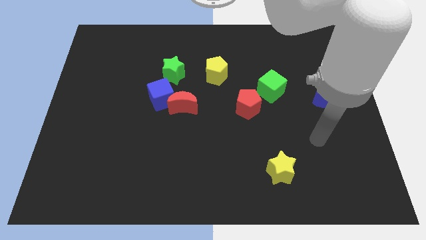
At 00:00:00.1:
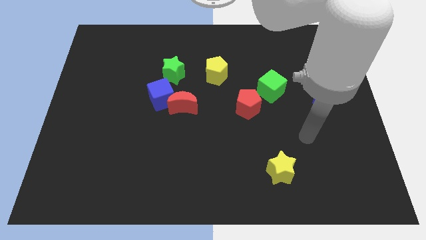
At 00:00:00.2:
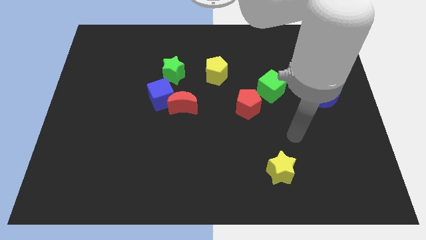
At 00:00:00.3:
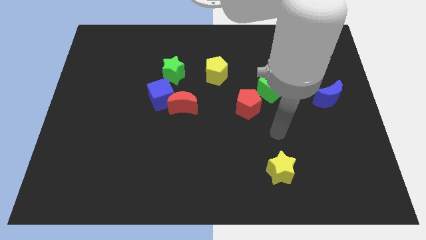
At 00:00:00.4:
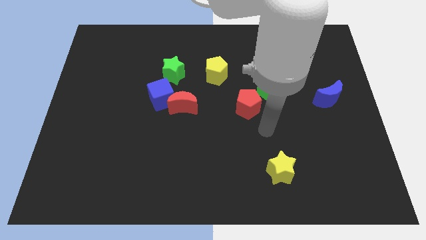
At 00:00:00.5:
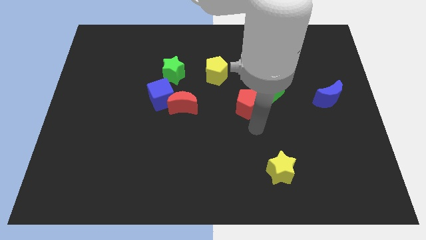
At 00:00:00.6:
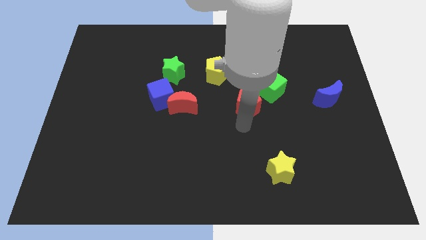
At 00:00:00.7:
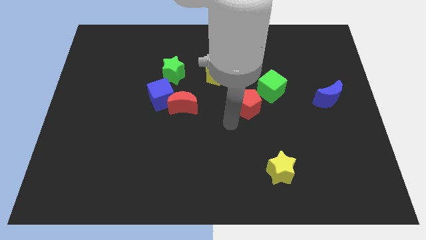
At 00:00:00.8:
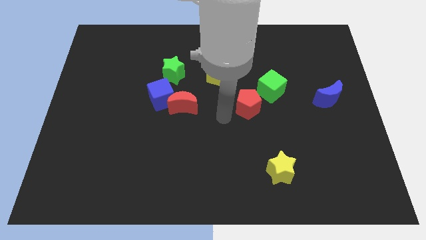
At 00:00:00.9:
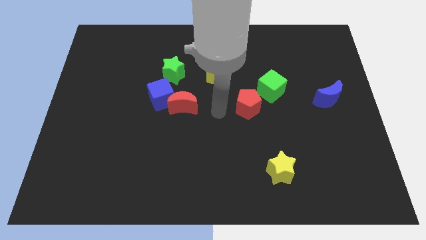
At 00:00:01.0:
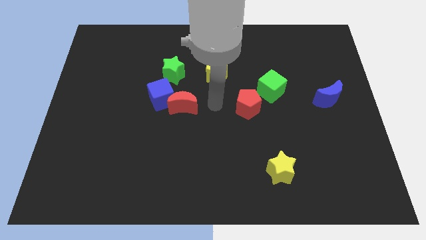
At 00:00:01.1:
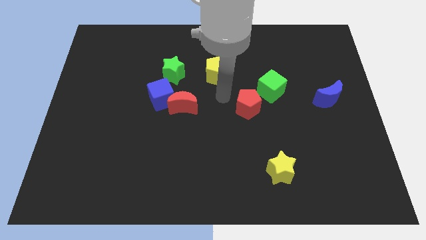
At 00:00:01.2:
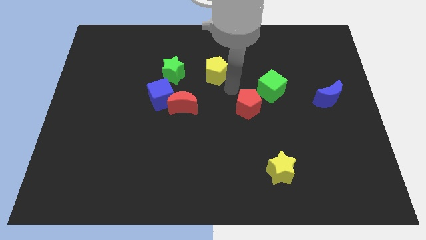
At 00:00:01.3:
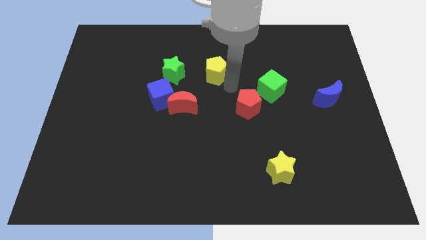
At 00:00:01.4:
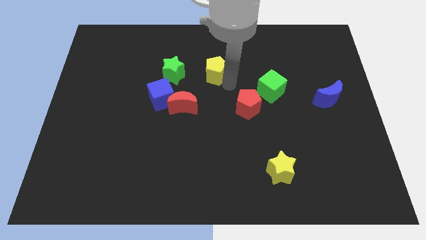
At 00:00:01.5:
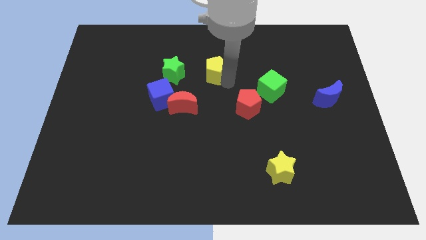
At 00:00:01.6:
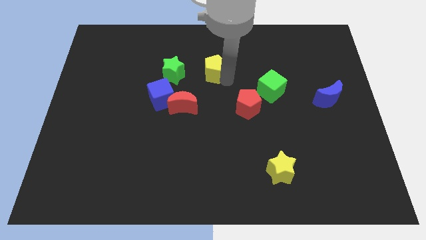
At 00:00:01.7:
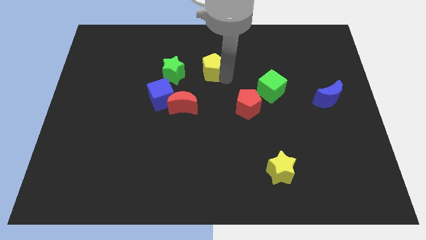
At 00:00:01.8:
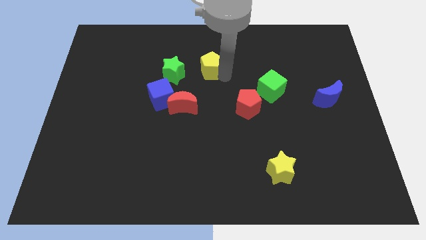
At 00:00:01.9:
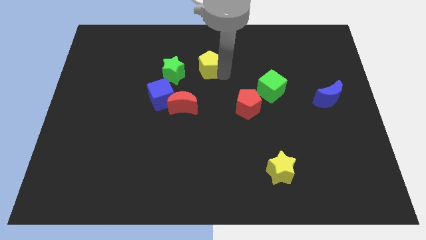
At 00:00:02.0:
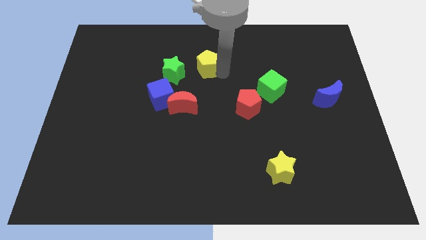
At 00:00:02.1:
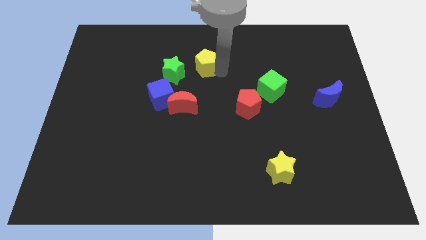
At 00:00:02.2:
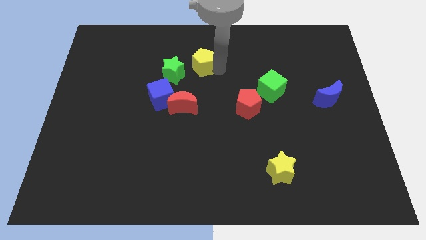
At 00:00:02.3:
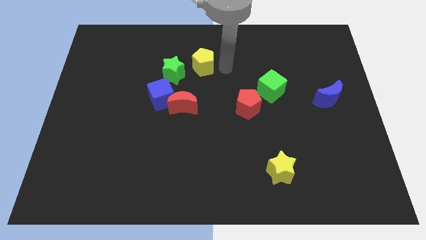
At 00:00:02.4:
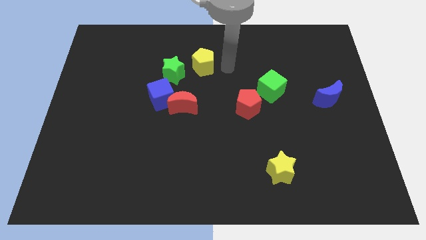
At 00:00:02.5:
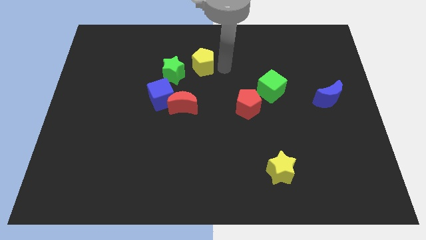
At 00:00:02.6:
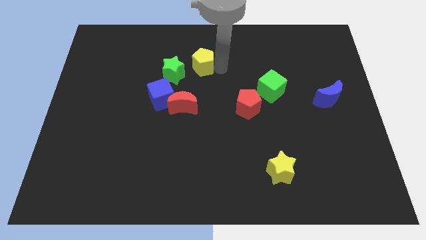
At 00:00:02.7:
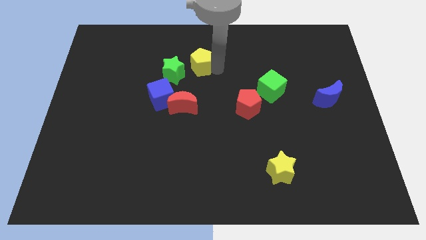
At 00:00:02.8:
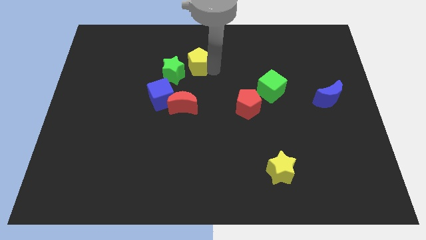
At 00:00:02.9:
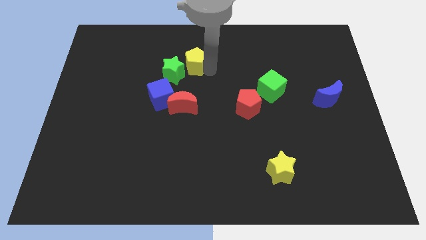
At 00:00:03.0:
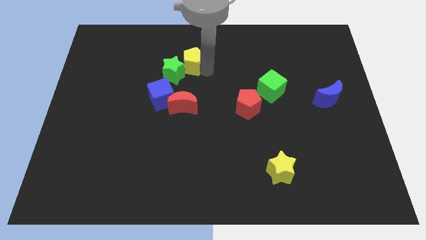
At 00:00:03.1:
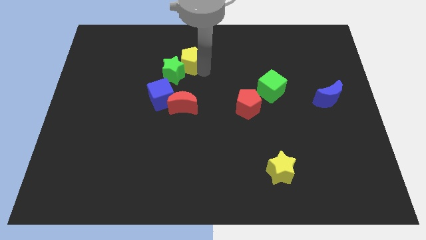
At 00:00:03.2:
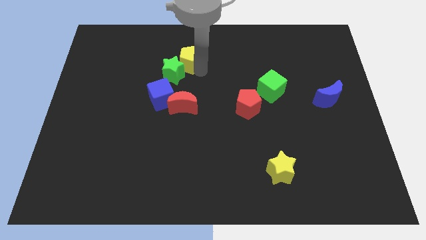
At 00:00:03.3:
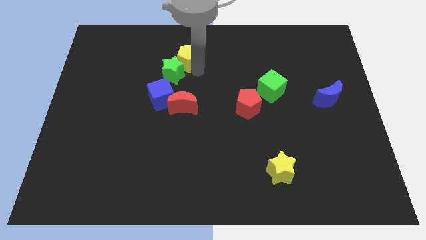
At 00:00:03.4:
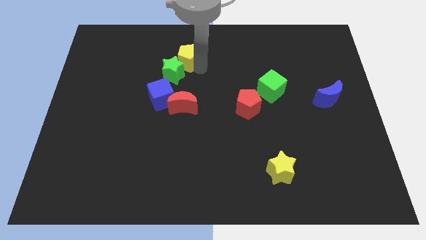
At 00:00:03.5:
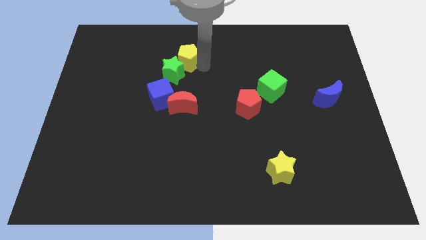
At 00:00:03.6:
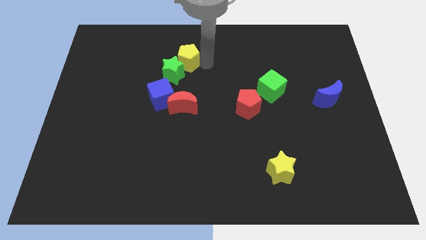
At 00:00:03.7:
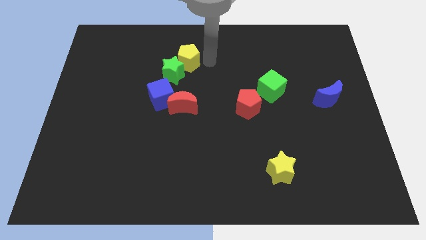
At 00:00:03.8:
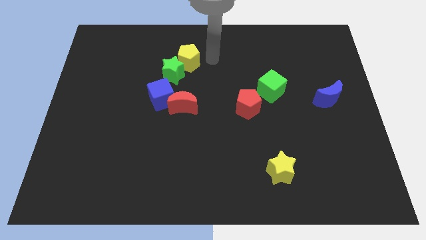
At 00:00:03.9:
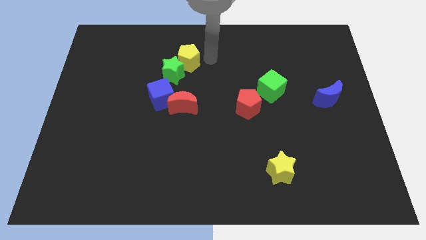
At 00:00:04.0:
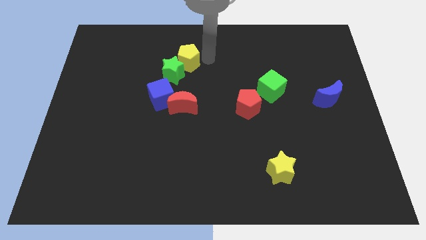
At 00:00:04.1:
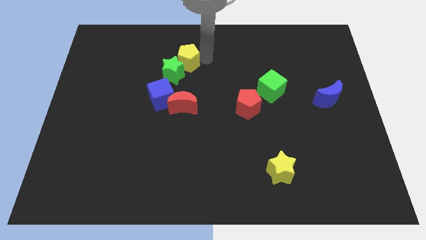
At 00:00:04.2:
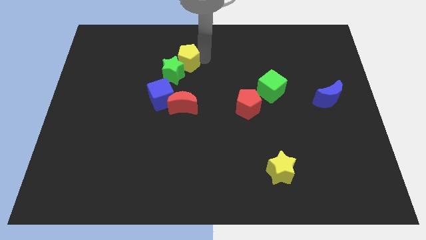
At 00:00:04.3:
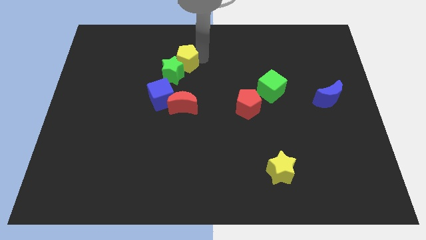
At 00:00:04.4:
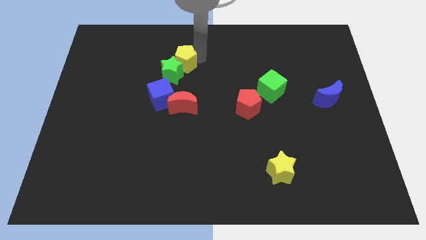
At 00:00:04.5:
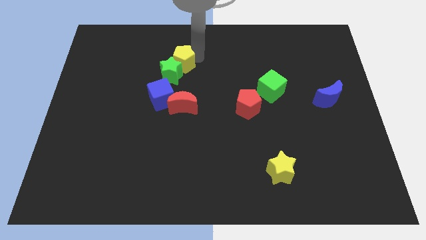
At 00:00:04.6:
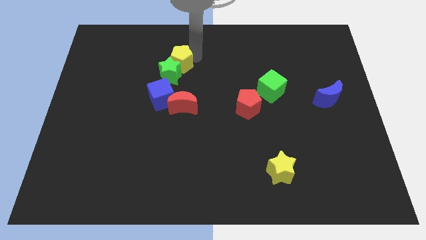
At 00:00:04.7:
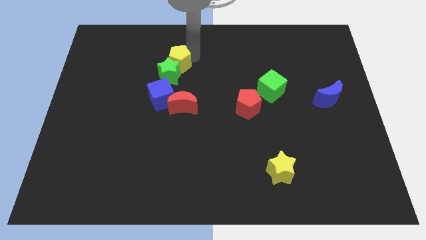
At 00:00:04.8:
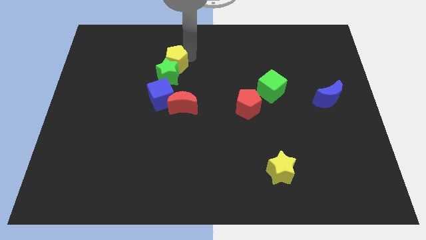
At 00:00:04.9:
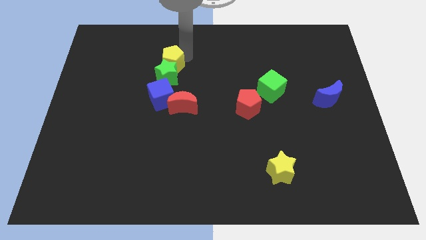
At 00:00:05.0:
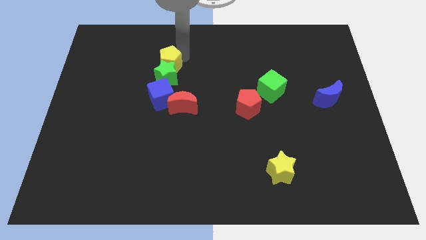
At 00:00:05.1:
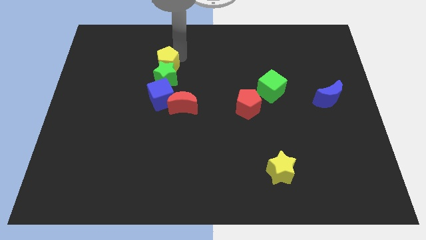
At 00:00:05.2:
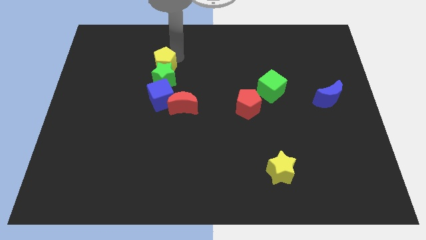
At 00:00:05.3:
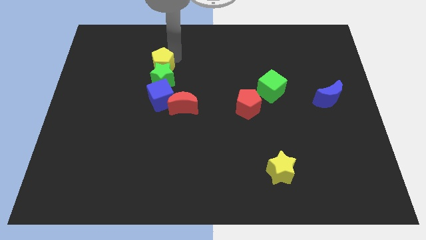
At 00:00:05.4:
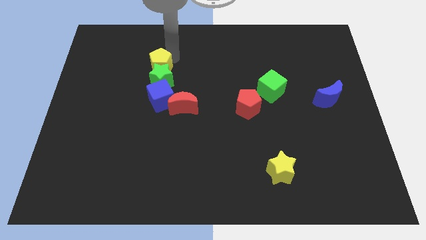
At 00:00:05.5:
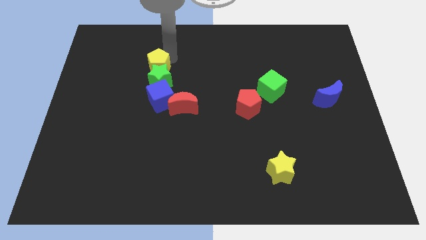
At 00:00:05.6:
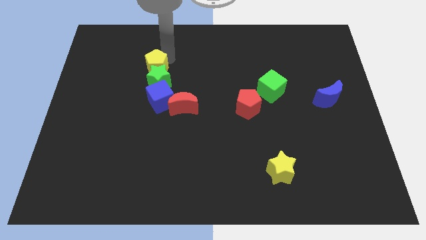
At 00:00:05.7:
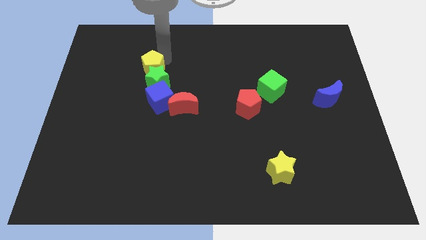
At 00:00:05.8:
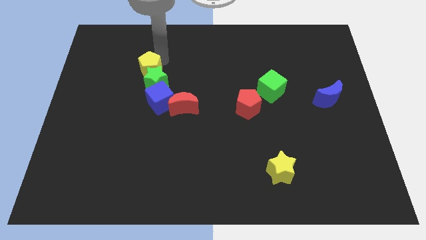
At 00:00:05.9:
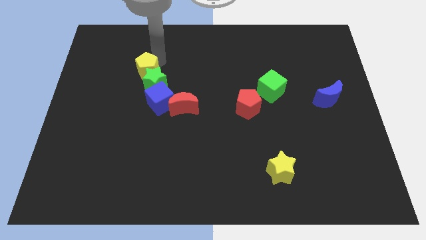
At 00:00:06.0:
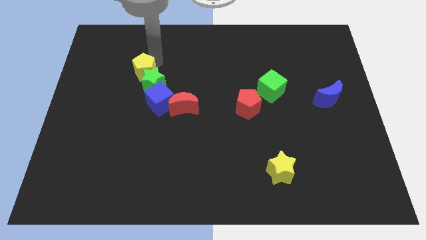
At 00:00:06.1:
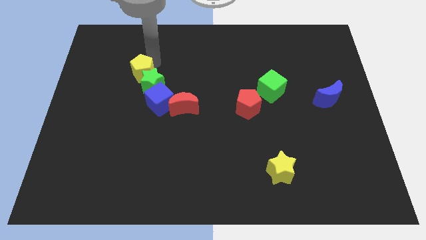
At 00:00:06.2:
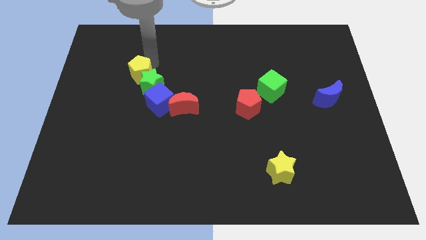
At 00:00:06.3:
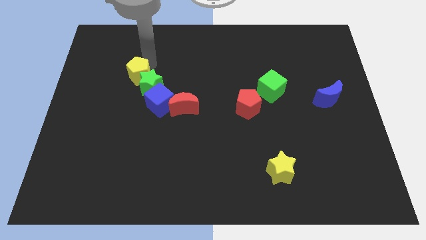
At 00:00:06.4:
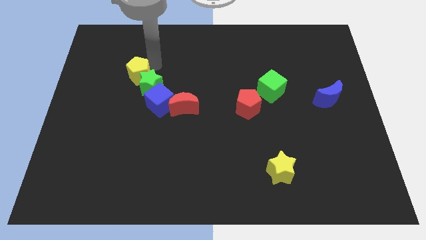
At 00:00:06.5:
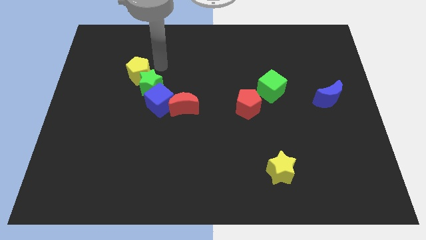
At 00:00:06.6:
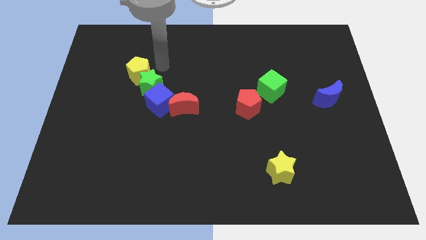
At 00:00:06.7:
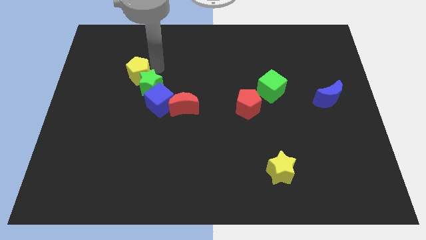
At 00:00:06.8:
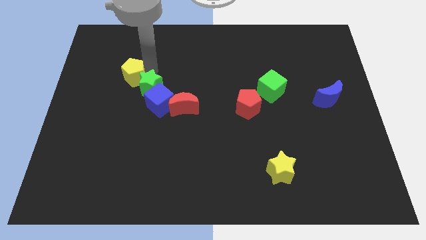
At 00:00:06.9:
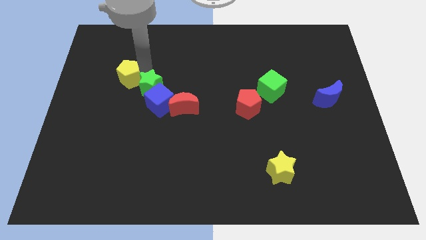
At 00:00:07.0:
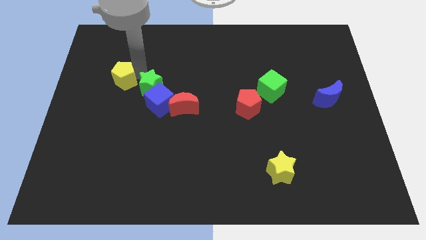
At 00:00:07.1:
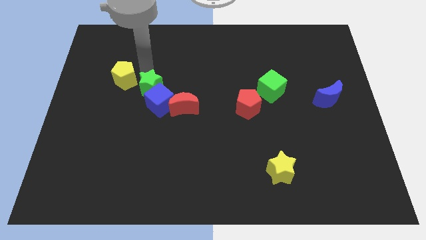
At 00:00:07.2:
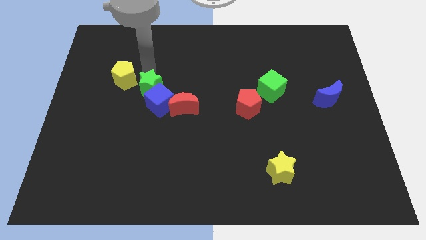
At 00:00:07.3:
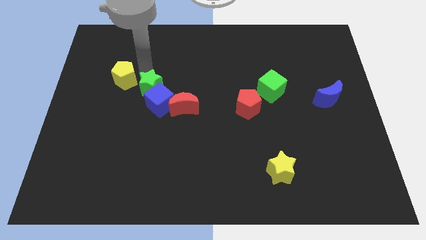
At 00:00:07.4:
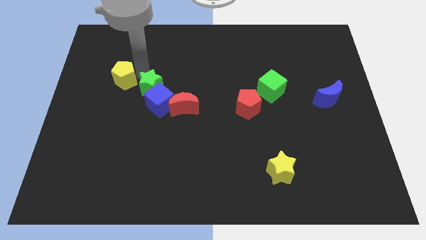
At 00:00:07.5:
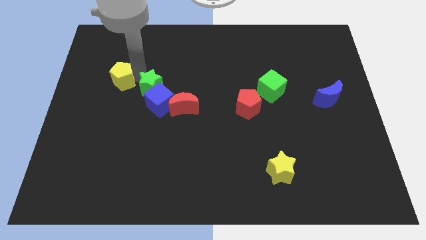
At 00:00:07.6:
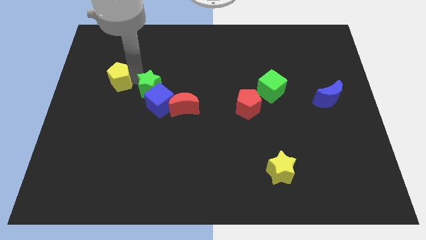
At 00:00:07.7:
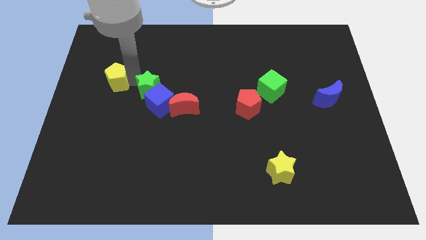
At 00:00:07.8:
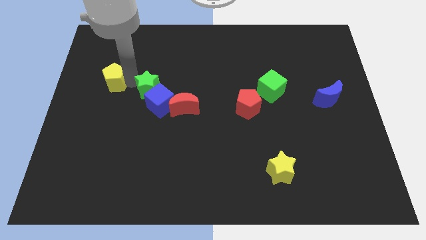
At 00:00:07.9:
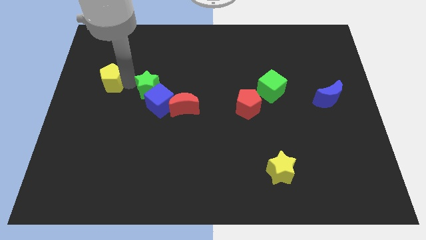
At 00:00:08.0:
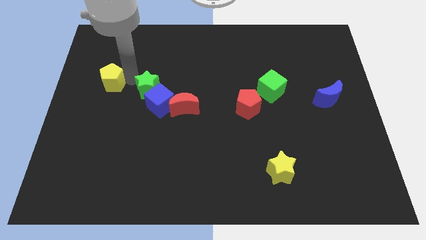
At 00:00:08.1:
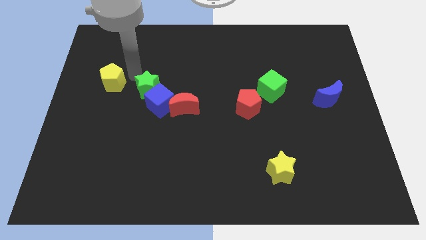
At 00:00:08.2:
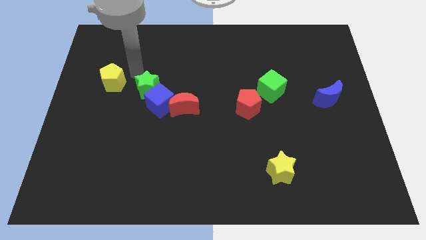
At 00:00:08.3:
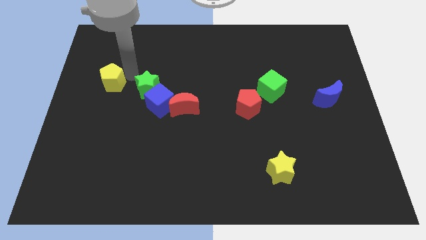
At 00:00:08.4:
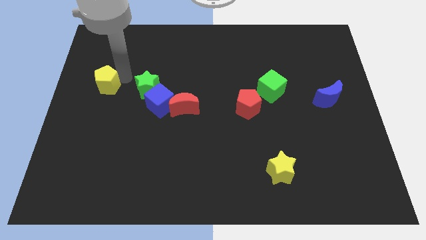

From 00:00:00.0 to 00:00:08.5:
push the yellow pentagon to the center left
